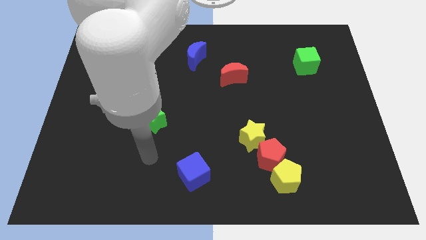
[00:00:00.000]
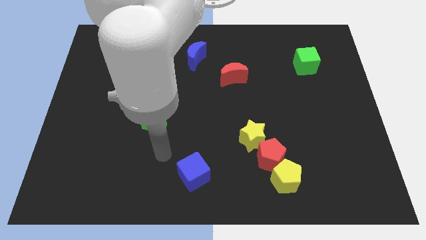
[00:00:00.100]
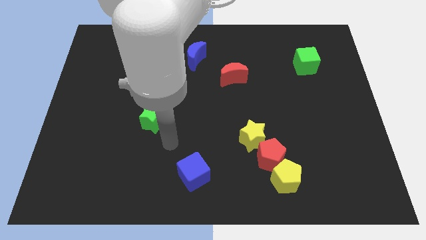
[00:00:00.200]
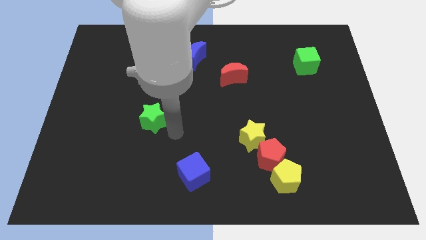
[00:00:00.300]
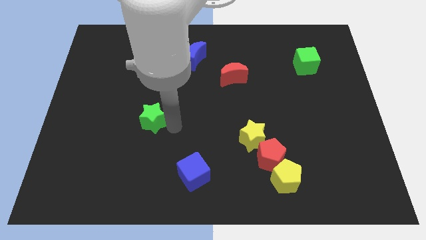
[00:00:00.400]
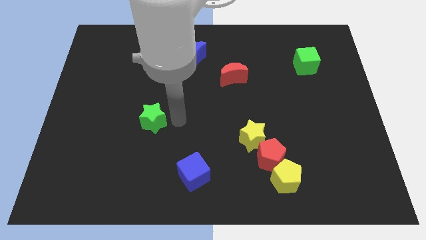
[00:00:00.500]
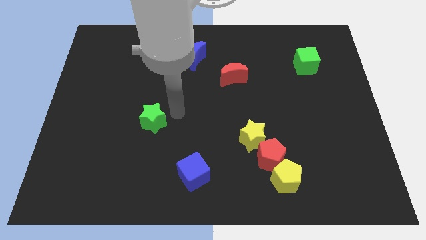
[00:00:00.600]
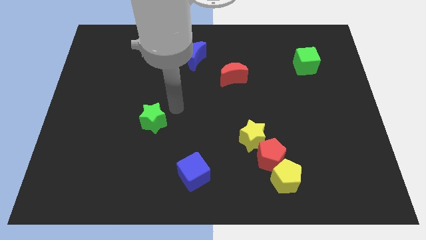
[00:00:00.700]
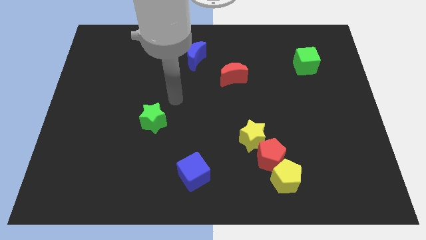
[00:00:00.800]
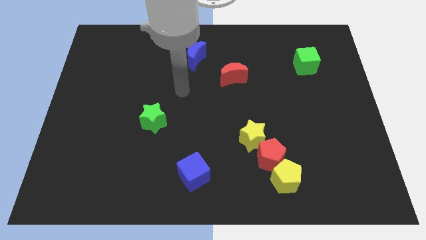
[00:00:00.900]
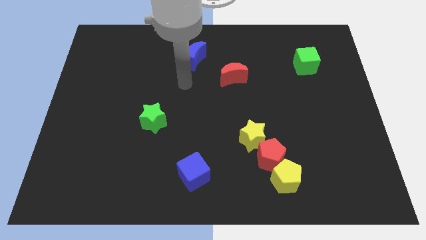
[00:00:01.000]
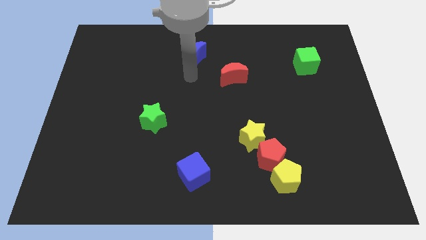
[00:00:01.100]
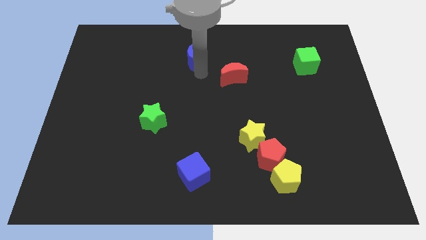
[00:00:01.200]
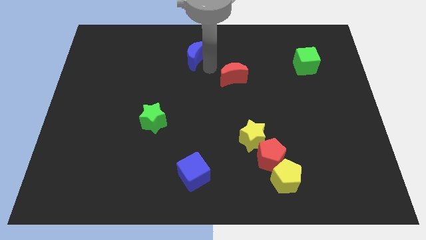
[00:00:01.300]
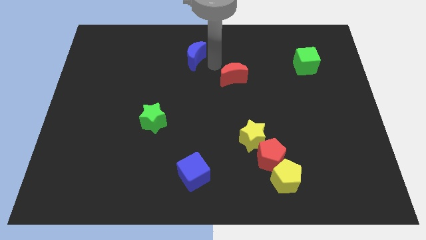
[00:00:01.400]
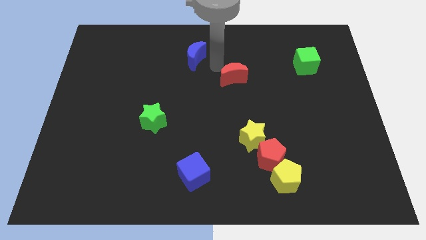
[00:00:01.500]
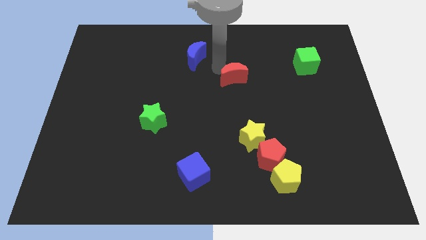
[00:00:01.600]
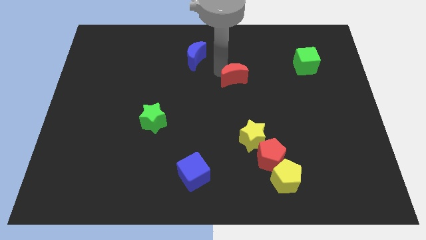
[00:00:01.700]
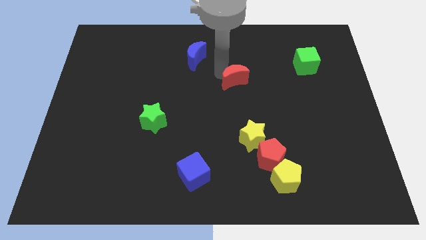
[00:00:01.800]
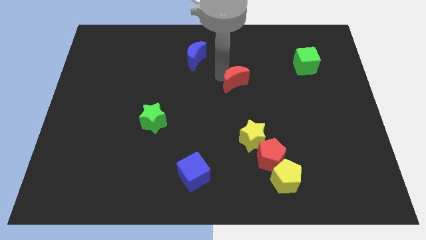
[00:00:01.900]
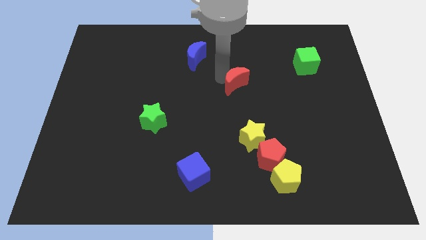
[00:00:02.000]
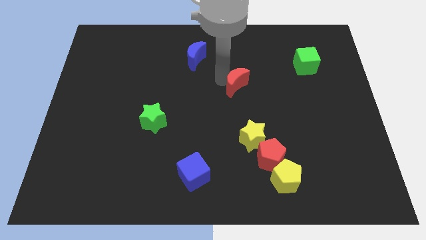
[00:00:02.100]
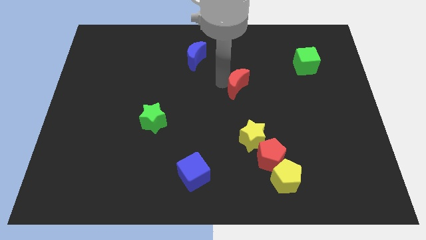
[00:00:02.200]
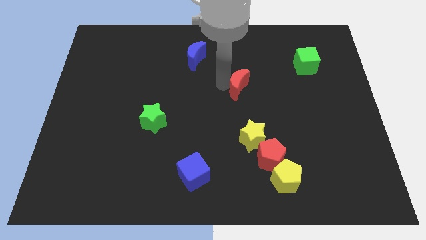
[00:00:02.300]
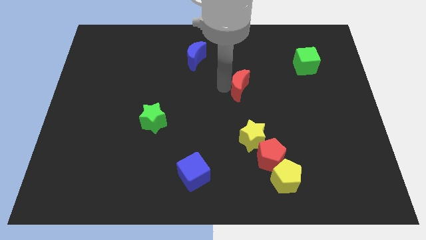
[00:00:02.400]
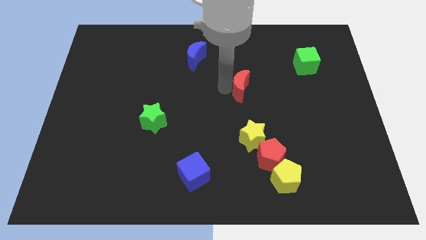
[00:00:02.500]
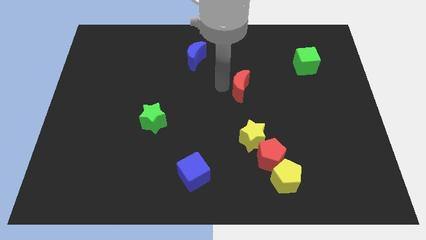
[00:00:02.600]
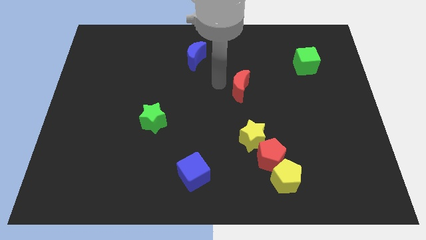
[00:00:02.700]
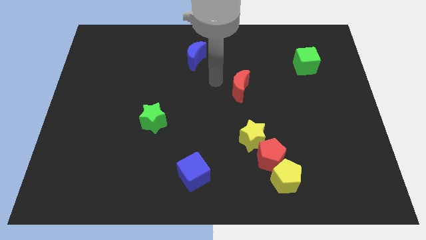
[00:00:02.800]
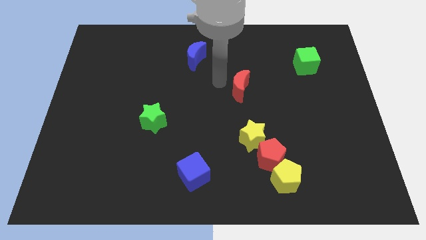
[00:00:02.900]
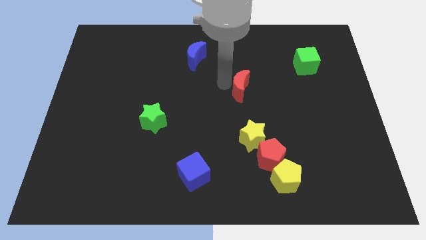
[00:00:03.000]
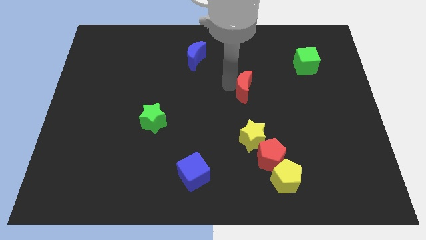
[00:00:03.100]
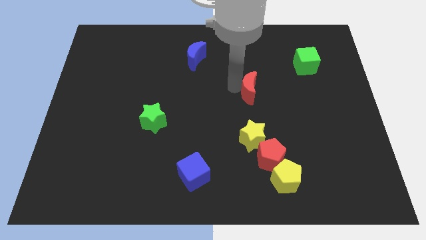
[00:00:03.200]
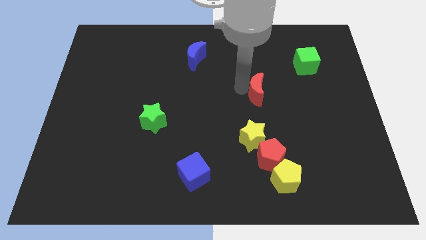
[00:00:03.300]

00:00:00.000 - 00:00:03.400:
move the red moon a little bit downwards and then right

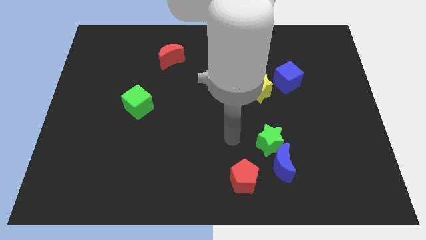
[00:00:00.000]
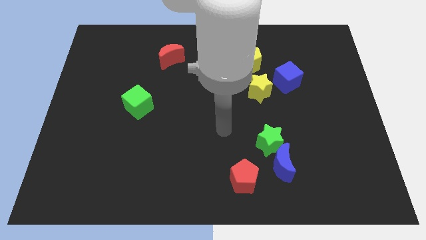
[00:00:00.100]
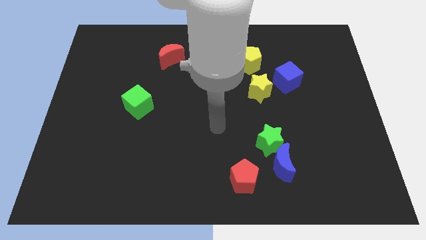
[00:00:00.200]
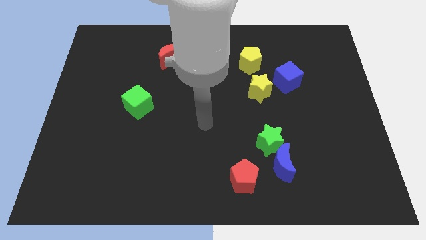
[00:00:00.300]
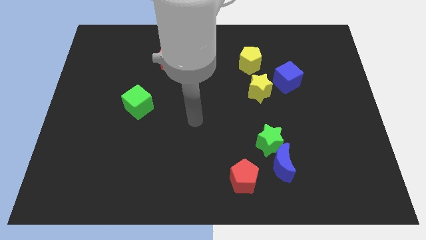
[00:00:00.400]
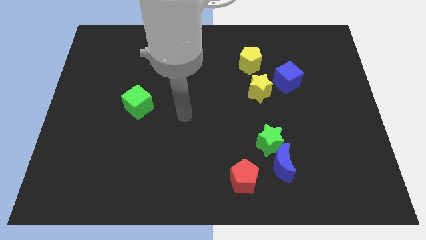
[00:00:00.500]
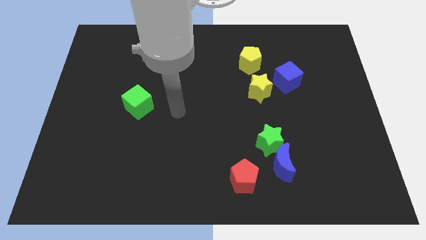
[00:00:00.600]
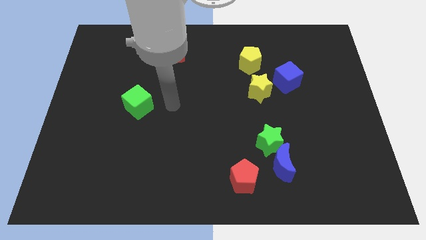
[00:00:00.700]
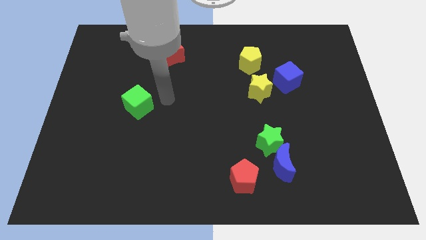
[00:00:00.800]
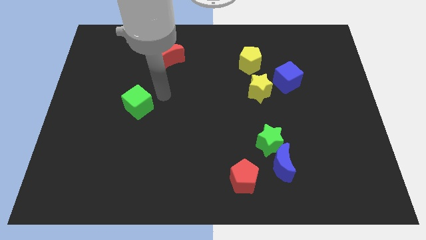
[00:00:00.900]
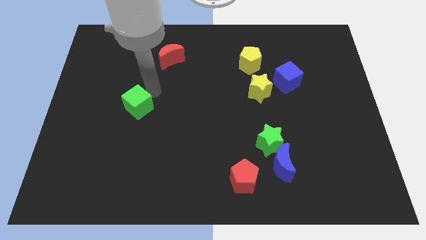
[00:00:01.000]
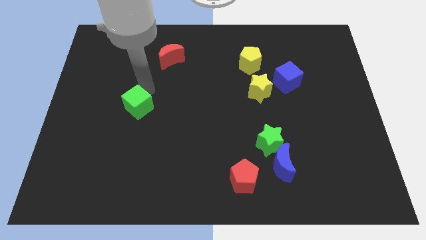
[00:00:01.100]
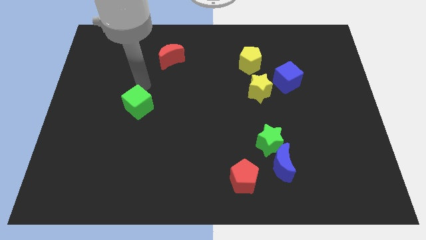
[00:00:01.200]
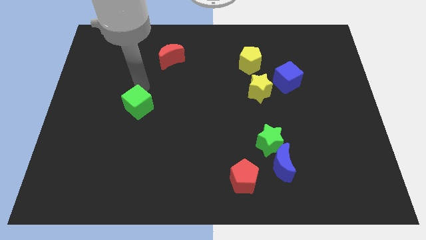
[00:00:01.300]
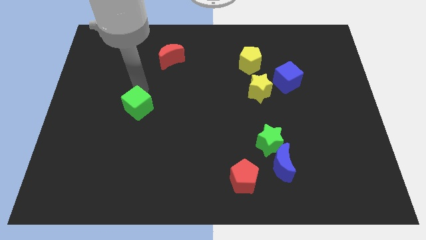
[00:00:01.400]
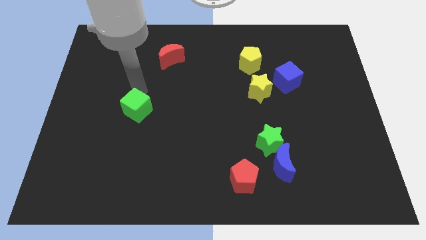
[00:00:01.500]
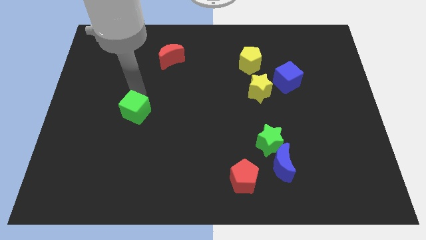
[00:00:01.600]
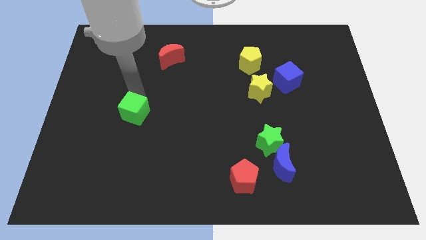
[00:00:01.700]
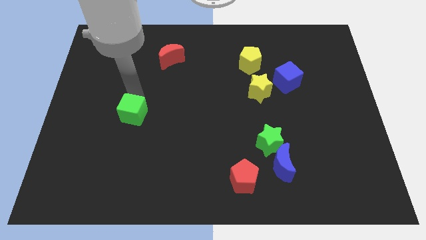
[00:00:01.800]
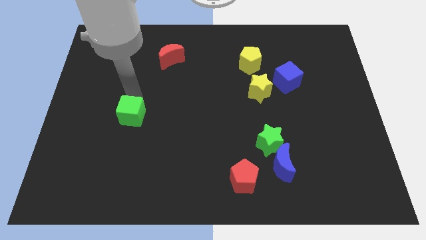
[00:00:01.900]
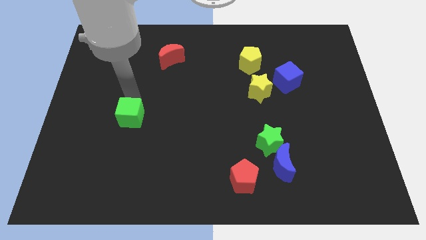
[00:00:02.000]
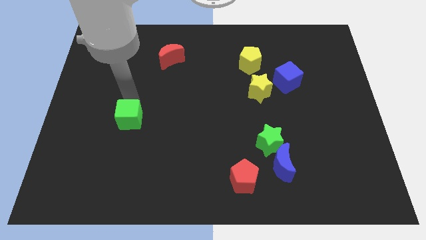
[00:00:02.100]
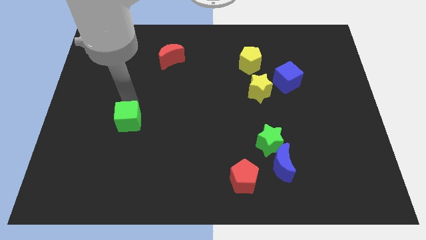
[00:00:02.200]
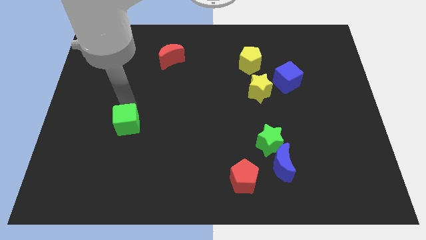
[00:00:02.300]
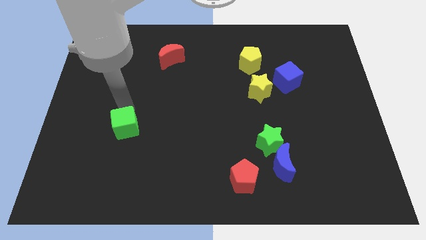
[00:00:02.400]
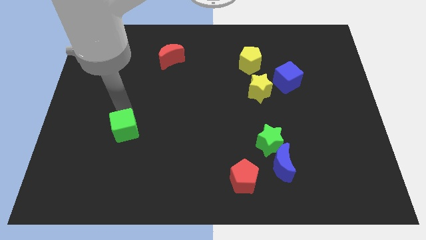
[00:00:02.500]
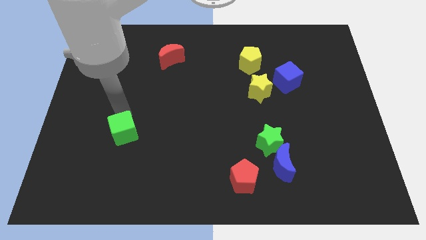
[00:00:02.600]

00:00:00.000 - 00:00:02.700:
slide the green cube downwards somewhat

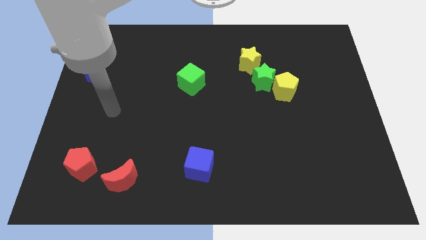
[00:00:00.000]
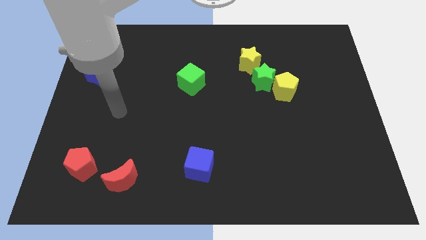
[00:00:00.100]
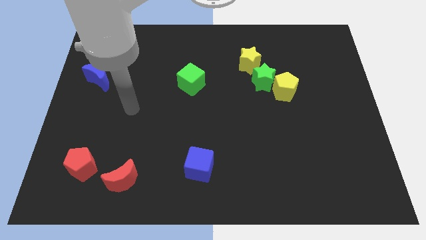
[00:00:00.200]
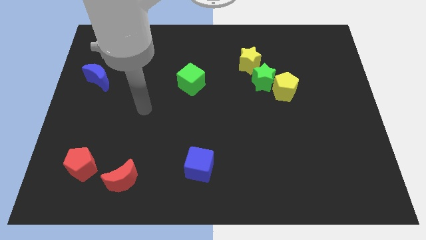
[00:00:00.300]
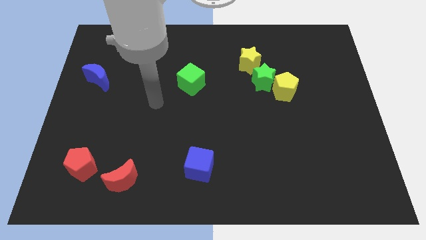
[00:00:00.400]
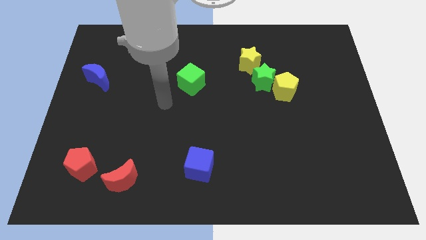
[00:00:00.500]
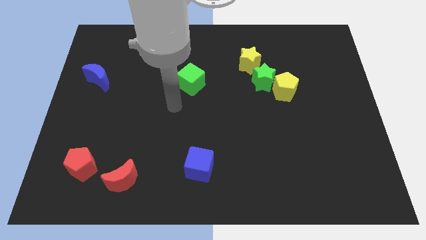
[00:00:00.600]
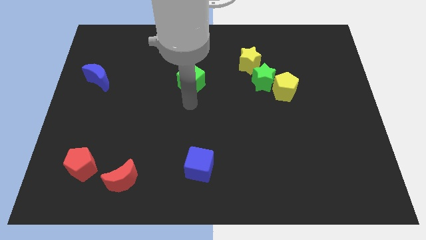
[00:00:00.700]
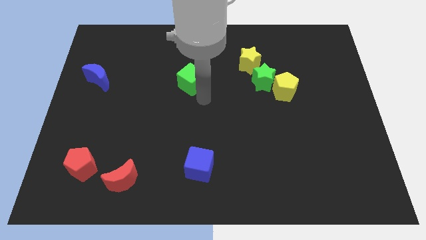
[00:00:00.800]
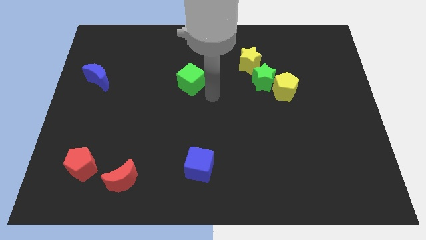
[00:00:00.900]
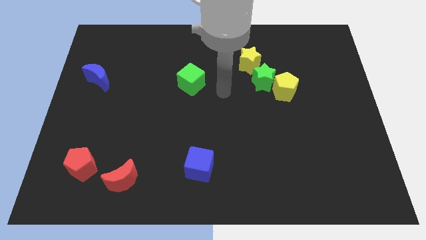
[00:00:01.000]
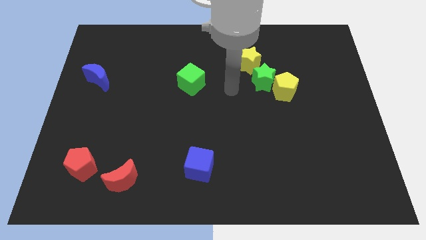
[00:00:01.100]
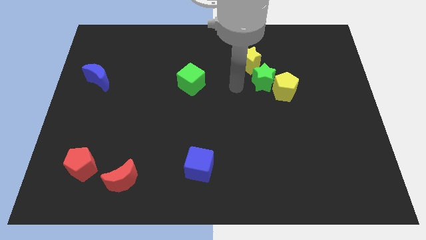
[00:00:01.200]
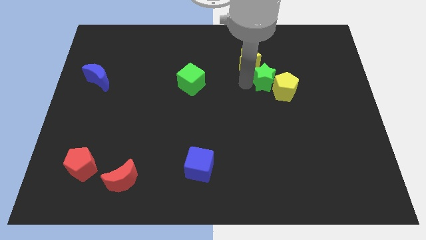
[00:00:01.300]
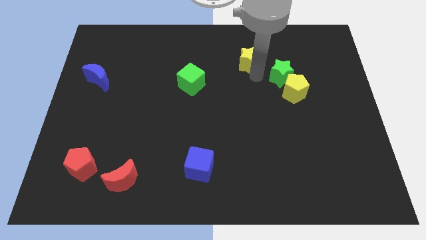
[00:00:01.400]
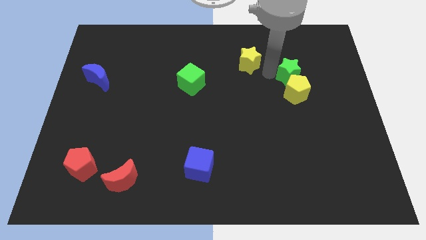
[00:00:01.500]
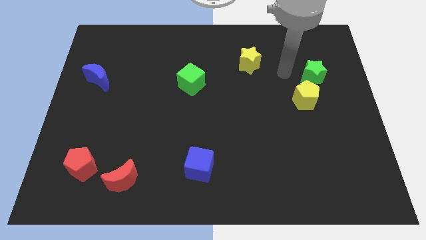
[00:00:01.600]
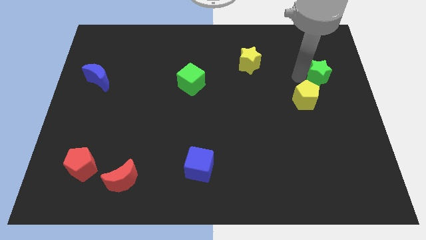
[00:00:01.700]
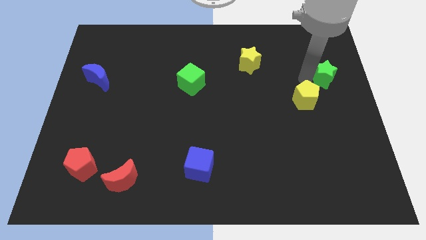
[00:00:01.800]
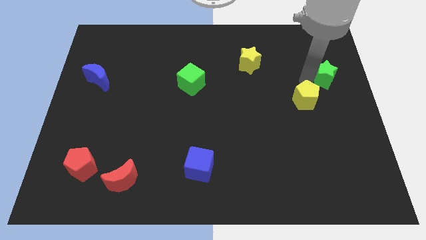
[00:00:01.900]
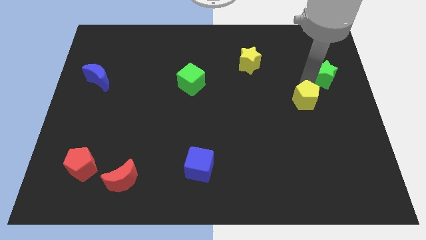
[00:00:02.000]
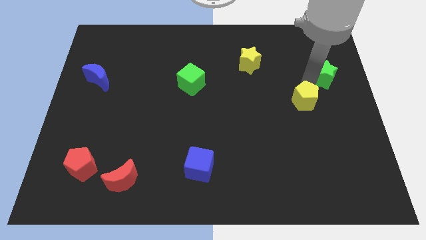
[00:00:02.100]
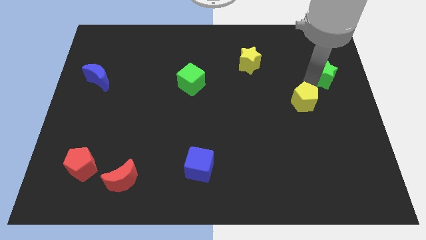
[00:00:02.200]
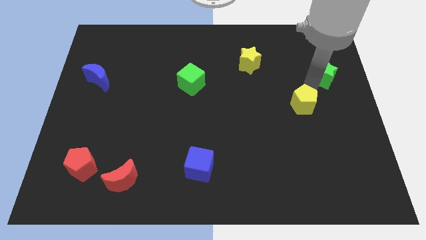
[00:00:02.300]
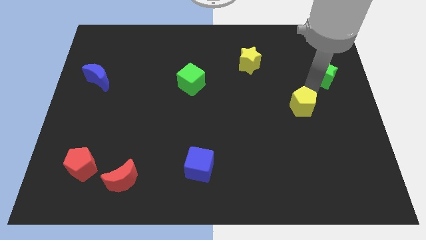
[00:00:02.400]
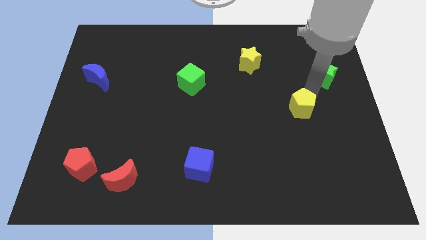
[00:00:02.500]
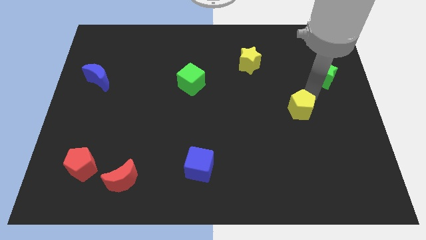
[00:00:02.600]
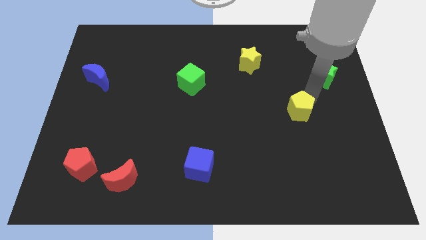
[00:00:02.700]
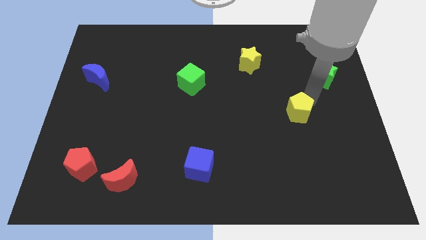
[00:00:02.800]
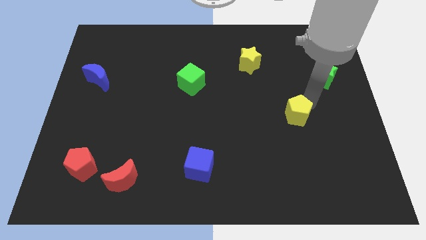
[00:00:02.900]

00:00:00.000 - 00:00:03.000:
slightly slide the yellow pentagon downwards
